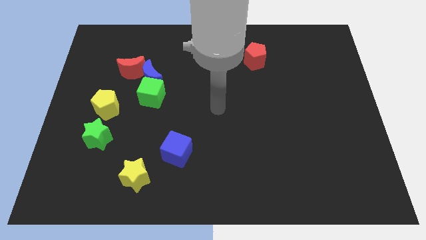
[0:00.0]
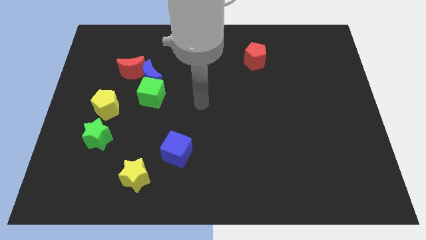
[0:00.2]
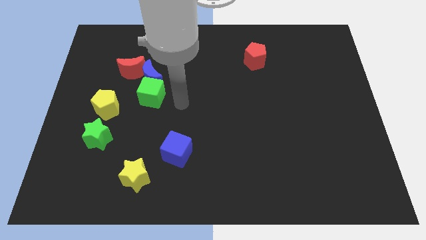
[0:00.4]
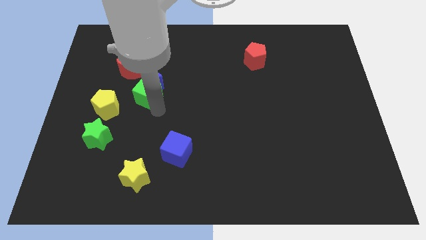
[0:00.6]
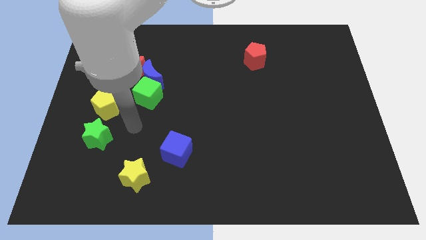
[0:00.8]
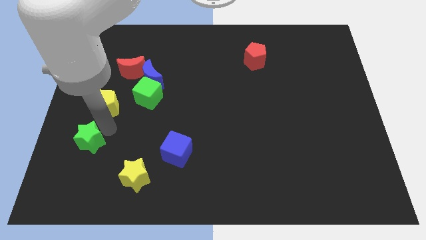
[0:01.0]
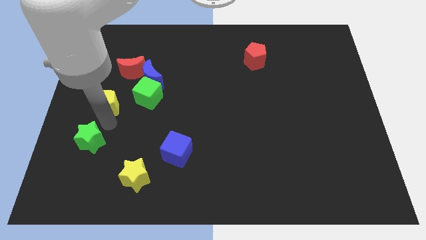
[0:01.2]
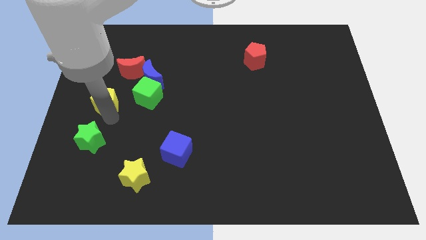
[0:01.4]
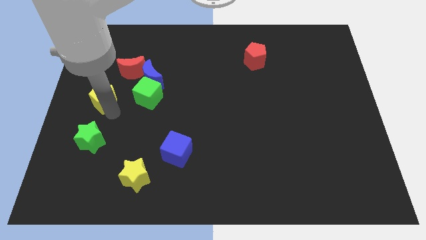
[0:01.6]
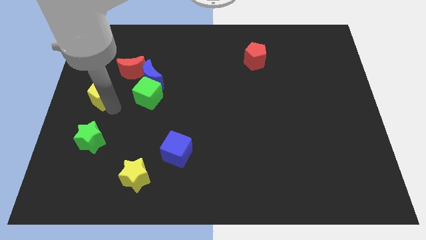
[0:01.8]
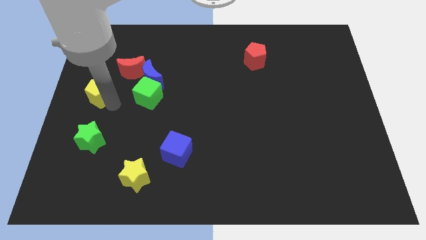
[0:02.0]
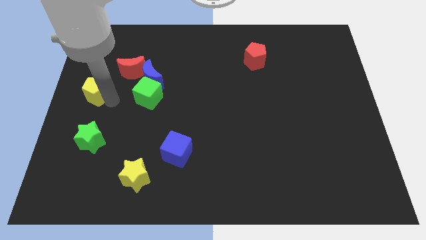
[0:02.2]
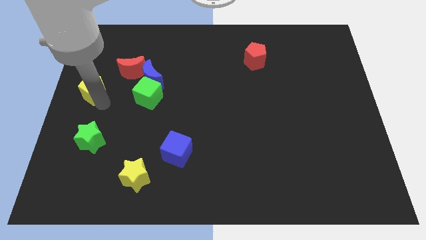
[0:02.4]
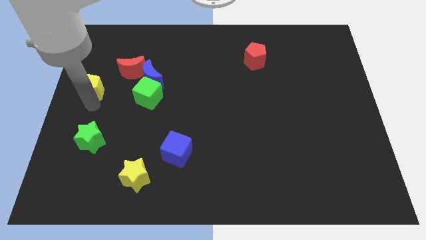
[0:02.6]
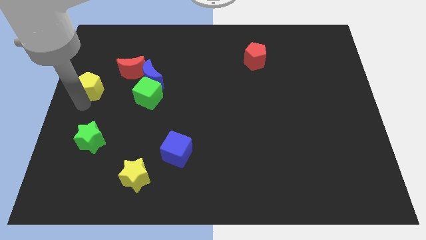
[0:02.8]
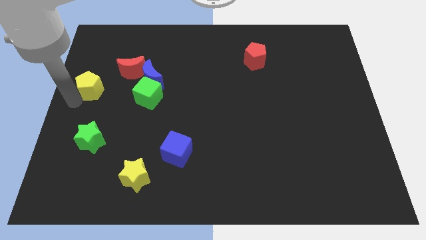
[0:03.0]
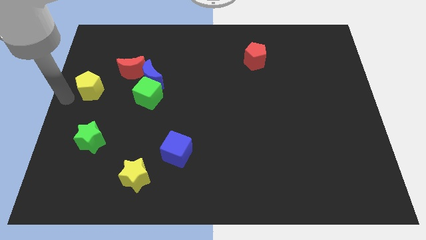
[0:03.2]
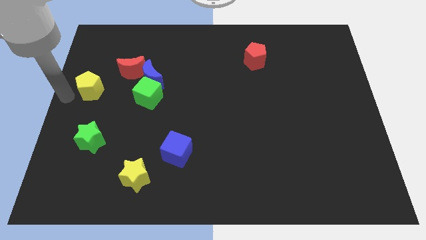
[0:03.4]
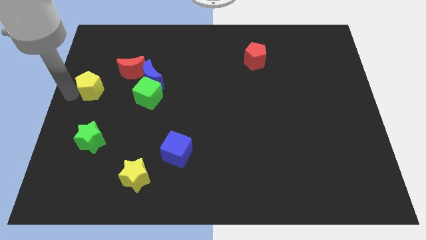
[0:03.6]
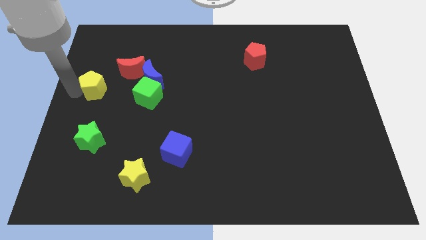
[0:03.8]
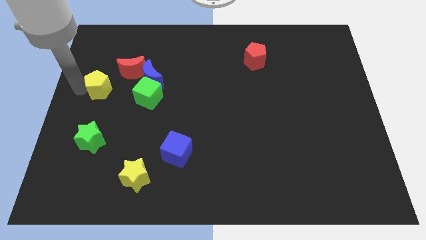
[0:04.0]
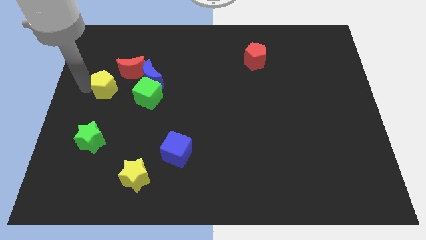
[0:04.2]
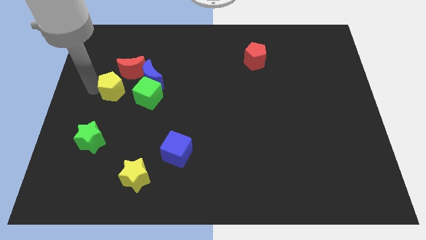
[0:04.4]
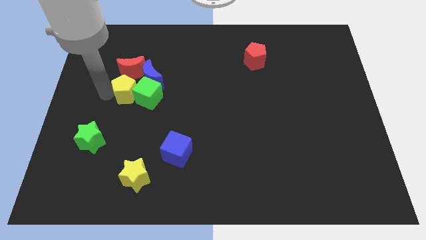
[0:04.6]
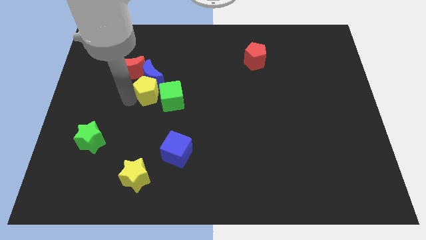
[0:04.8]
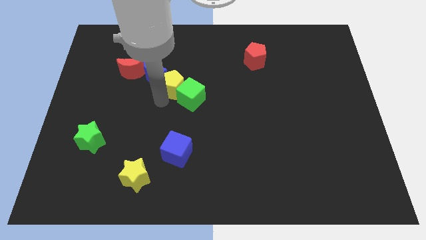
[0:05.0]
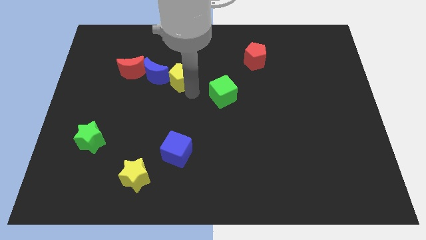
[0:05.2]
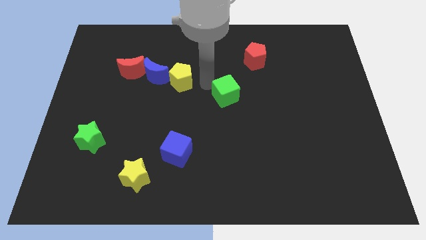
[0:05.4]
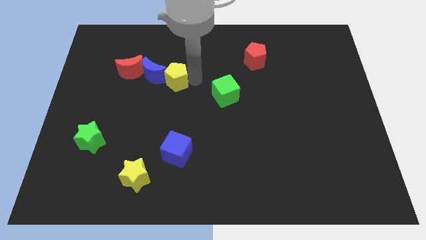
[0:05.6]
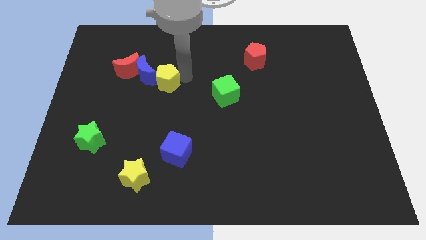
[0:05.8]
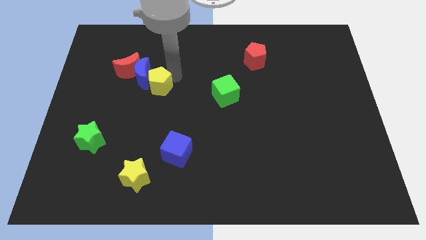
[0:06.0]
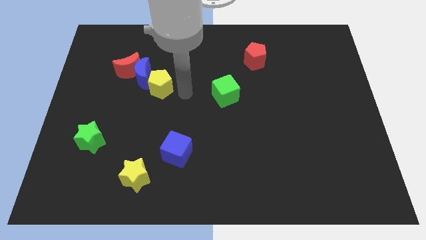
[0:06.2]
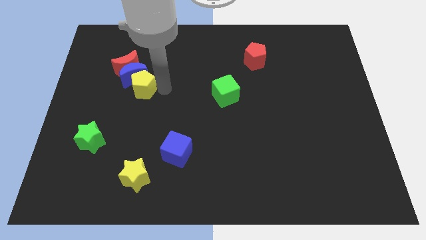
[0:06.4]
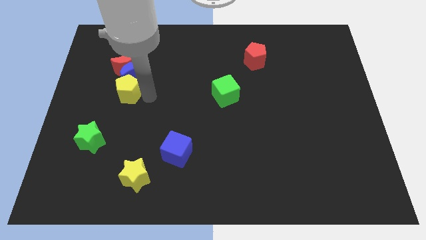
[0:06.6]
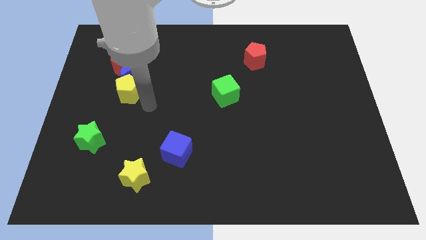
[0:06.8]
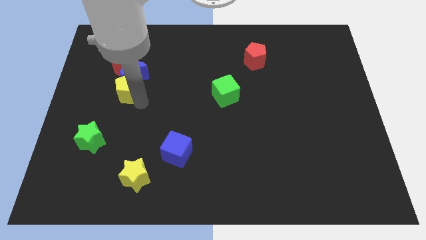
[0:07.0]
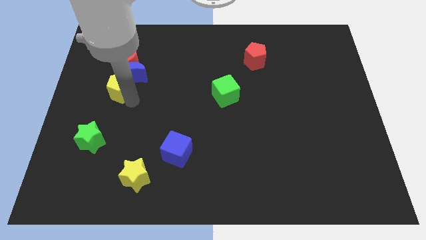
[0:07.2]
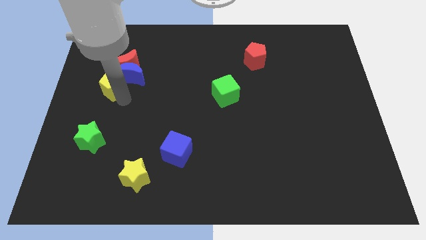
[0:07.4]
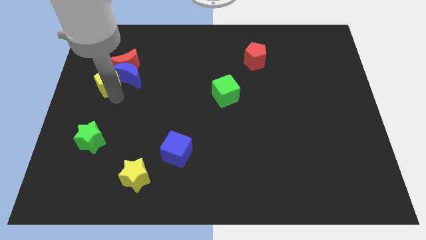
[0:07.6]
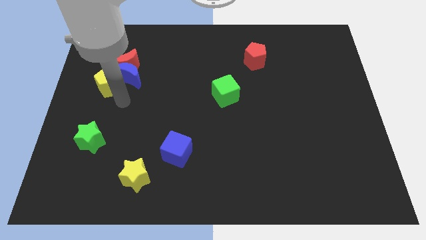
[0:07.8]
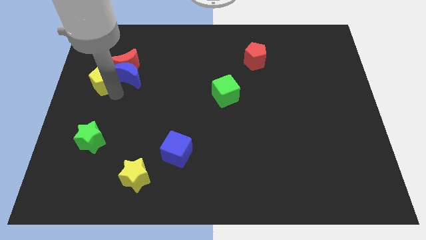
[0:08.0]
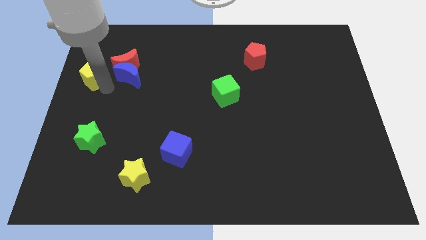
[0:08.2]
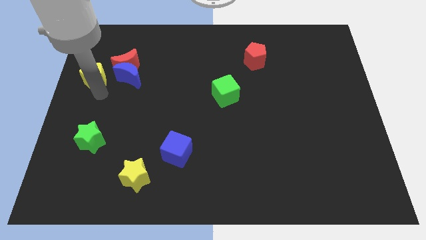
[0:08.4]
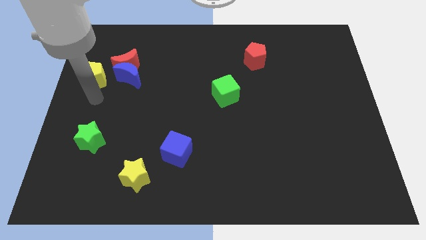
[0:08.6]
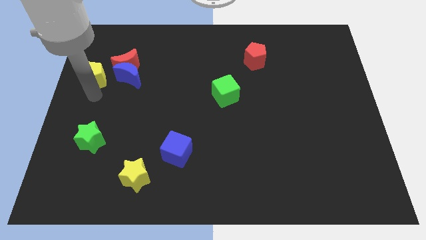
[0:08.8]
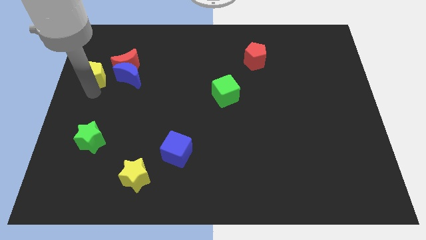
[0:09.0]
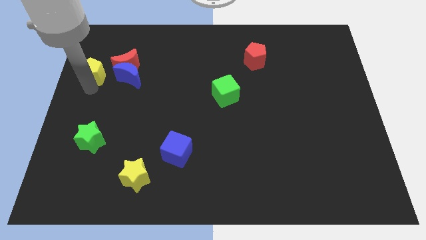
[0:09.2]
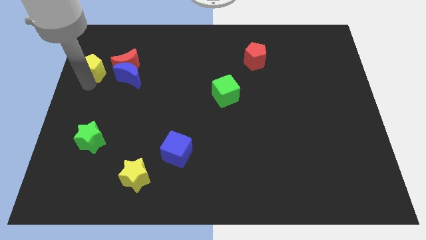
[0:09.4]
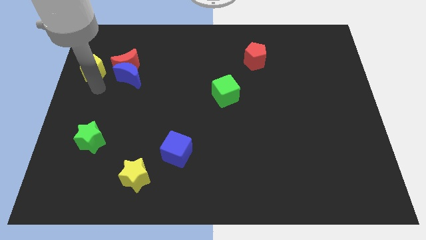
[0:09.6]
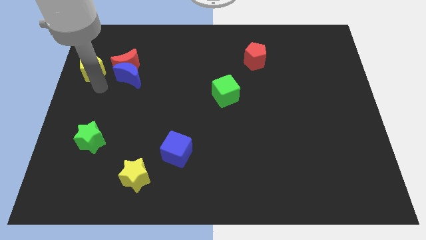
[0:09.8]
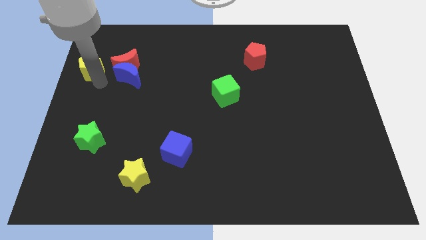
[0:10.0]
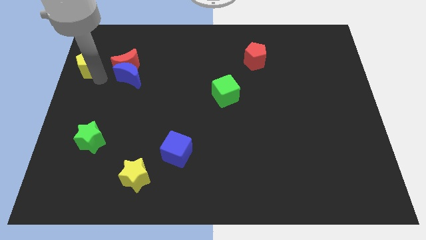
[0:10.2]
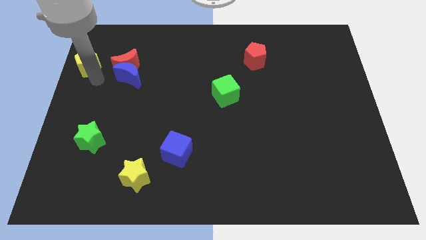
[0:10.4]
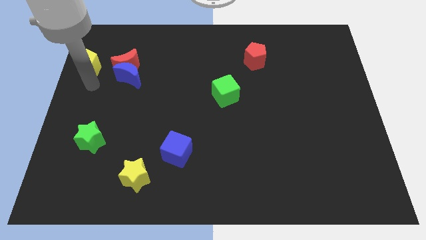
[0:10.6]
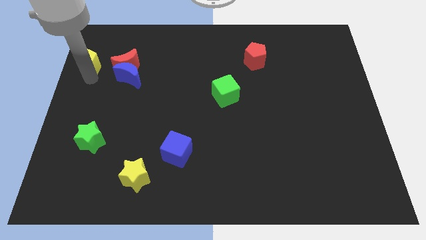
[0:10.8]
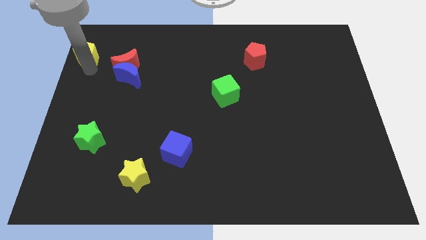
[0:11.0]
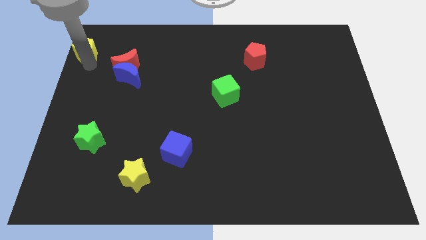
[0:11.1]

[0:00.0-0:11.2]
put the yellow pentagon to the top left

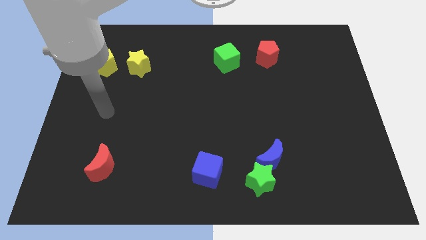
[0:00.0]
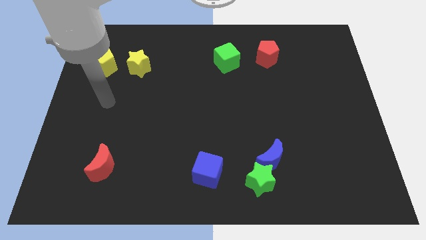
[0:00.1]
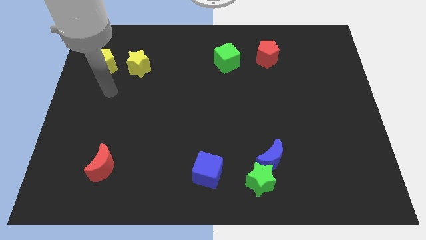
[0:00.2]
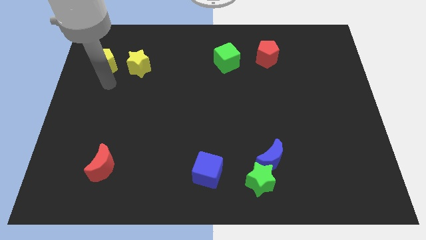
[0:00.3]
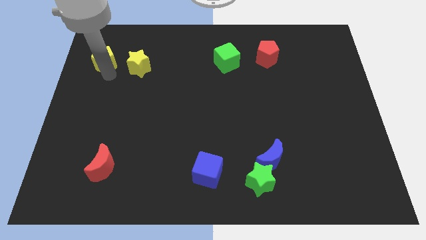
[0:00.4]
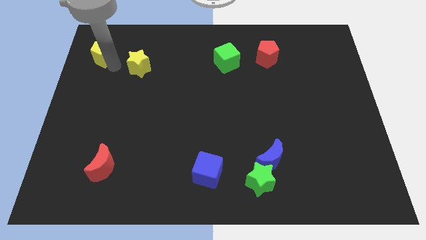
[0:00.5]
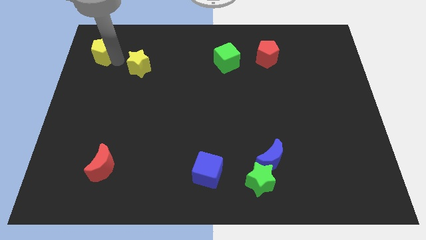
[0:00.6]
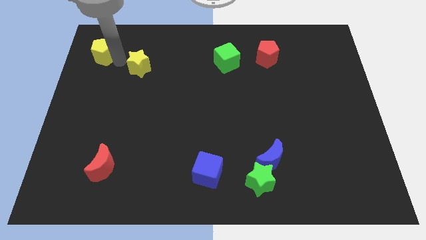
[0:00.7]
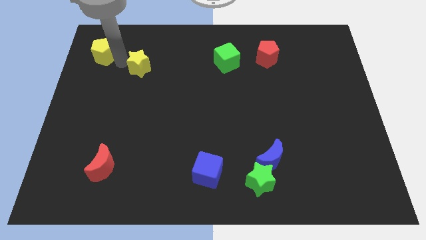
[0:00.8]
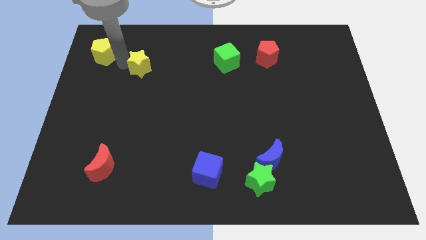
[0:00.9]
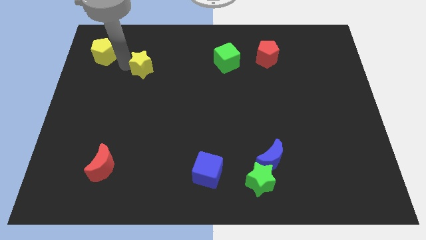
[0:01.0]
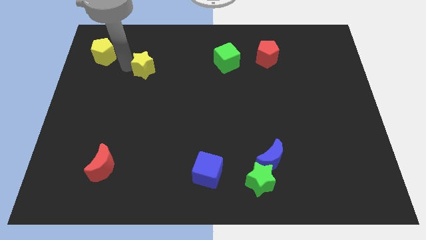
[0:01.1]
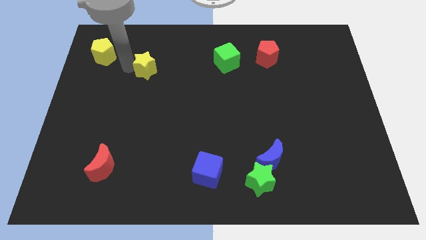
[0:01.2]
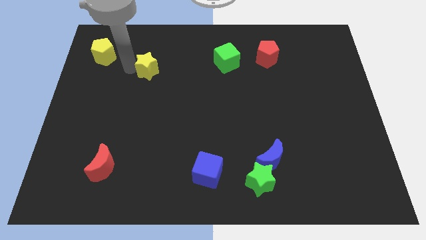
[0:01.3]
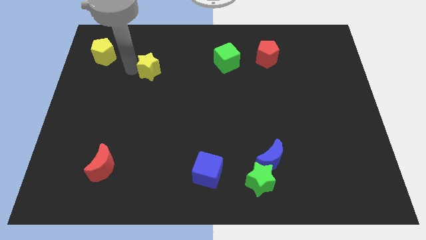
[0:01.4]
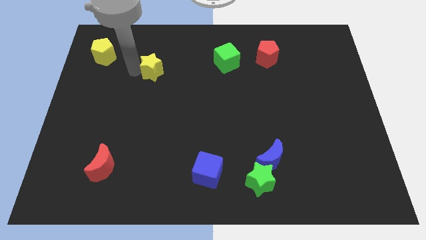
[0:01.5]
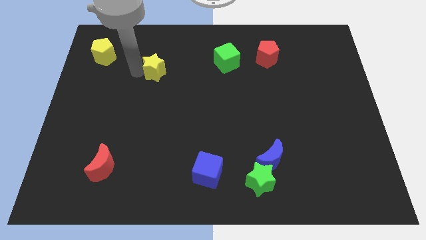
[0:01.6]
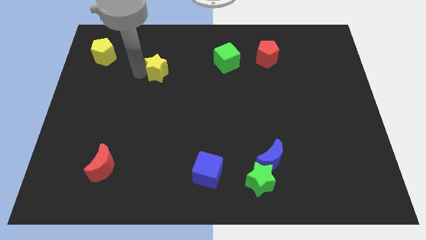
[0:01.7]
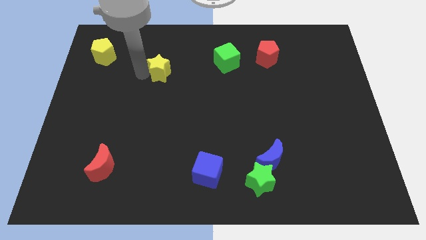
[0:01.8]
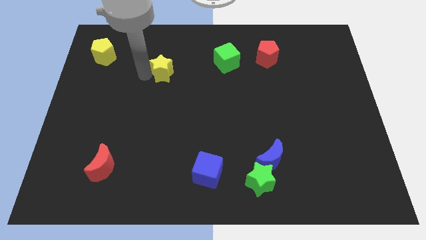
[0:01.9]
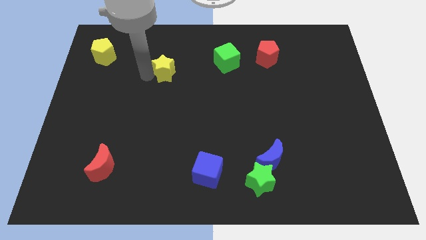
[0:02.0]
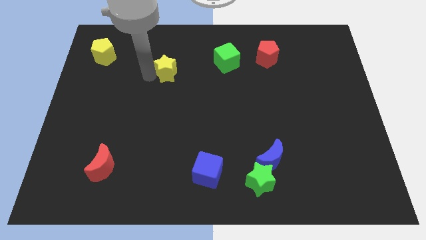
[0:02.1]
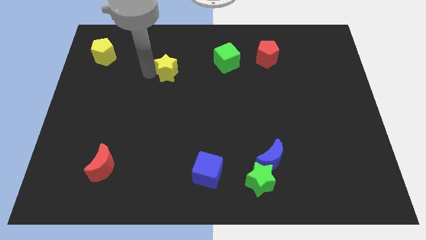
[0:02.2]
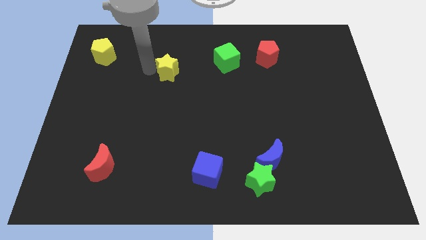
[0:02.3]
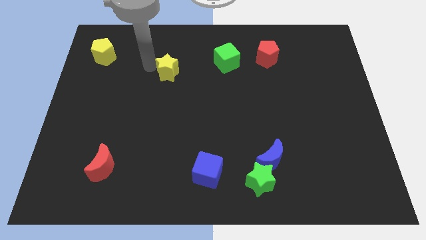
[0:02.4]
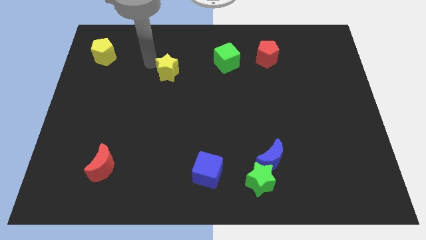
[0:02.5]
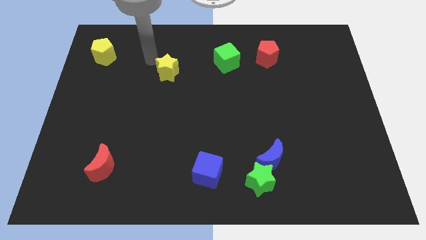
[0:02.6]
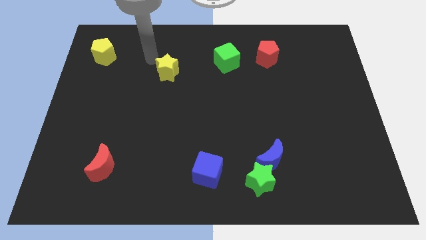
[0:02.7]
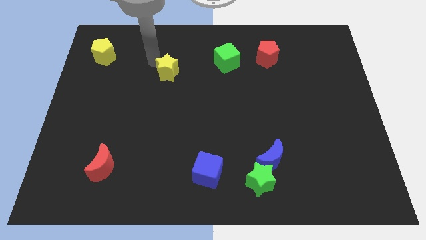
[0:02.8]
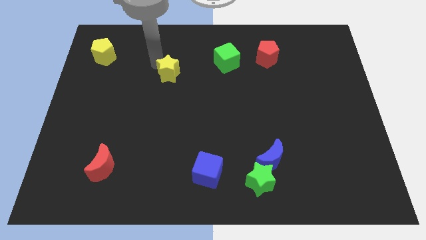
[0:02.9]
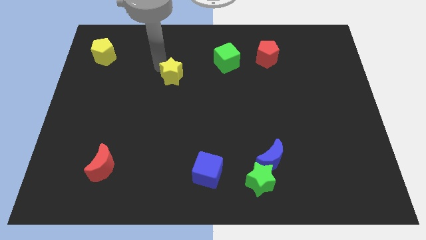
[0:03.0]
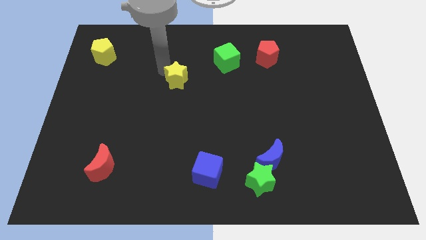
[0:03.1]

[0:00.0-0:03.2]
push the yellow star to the middle of the board
